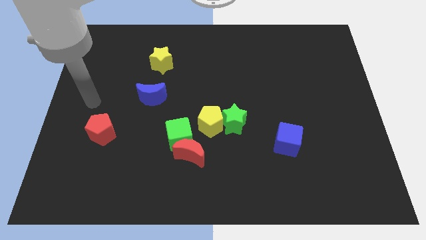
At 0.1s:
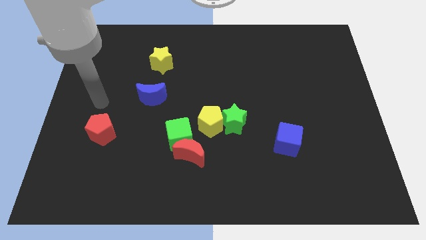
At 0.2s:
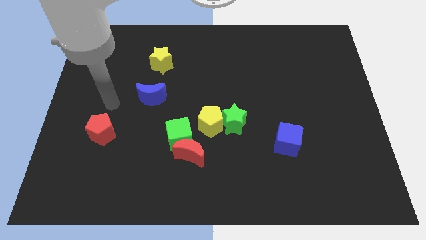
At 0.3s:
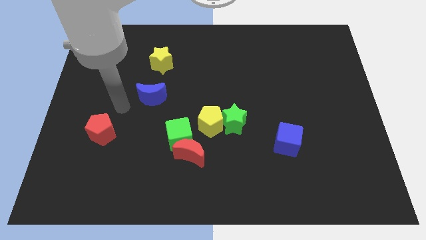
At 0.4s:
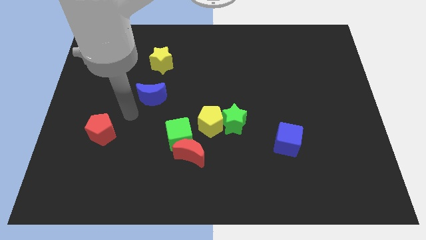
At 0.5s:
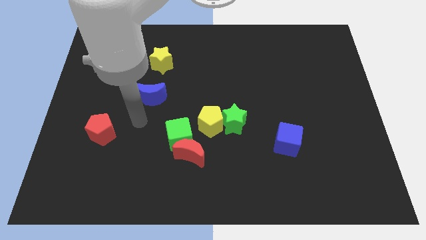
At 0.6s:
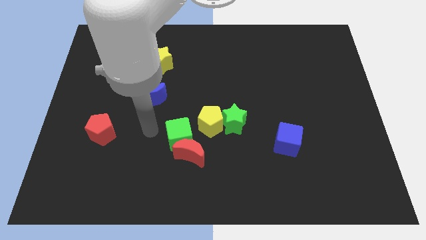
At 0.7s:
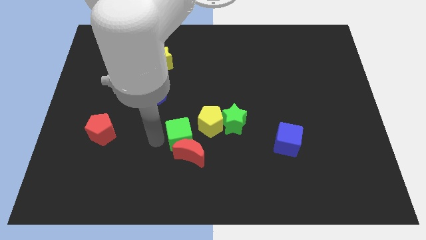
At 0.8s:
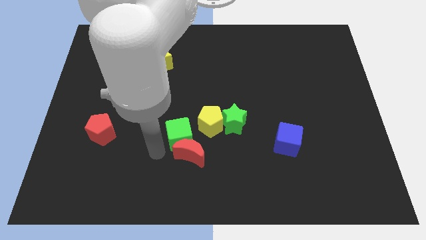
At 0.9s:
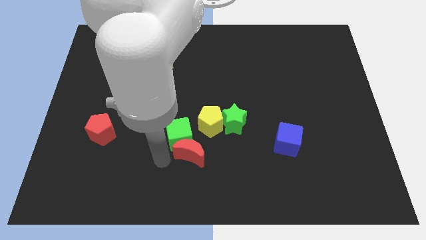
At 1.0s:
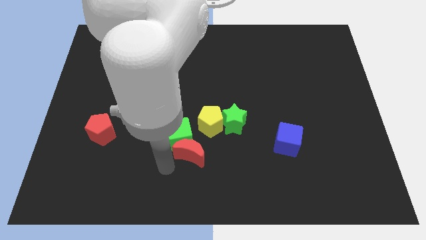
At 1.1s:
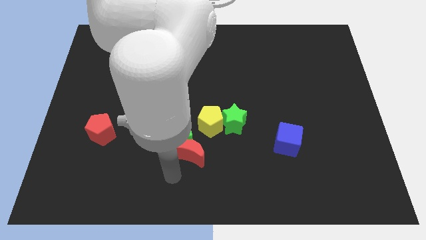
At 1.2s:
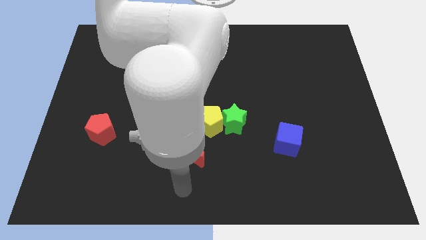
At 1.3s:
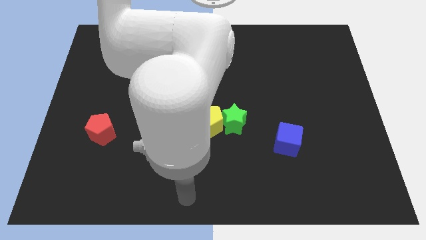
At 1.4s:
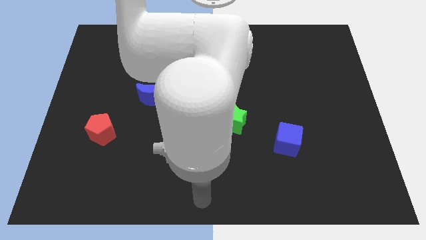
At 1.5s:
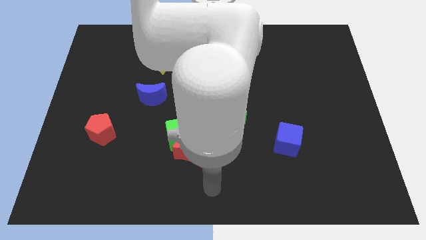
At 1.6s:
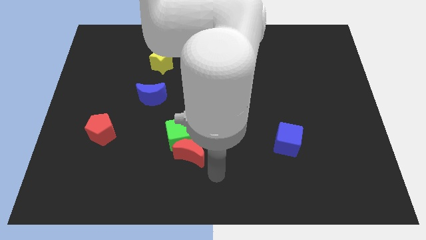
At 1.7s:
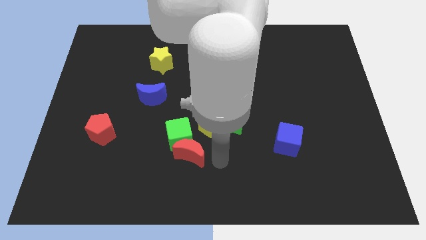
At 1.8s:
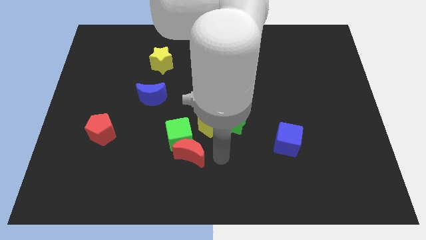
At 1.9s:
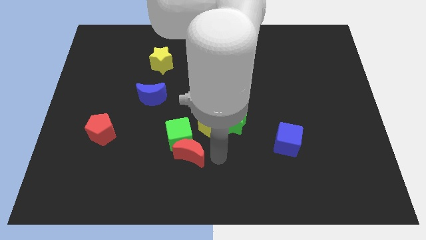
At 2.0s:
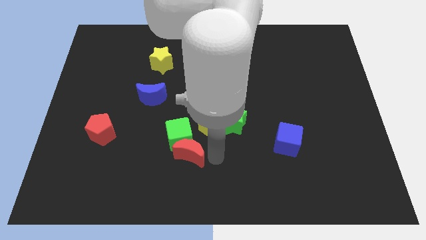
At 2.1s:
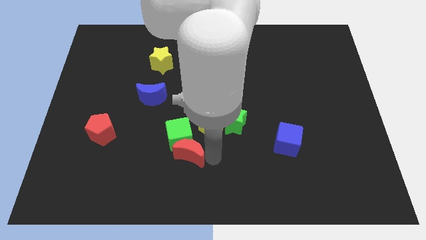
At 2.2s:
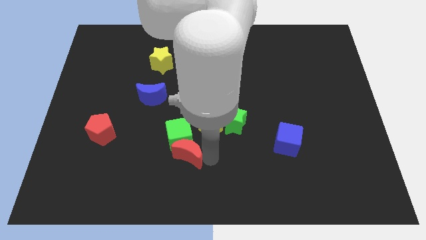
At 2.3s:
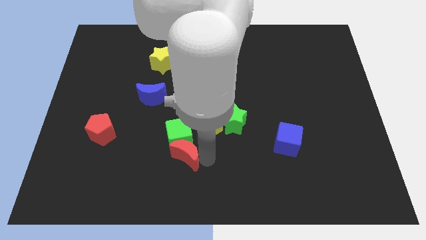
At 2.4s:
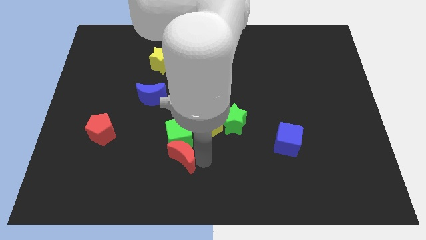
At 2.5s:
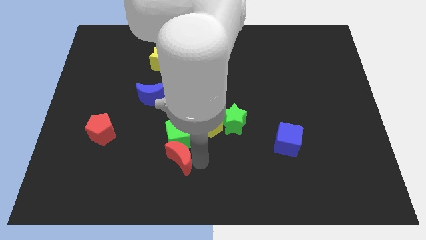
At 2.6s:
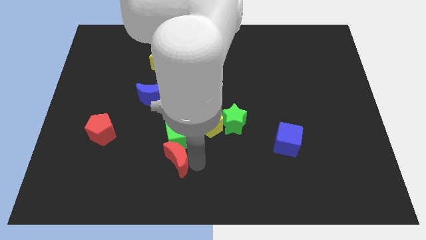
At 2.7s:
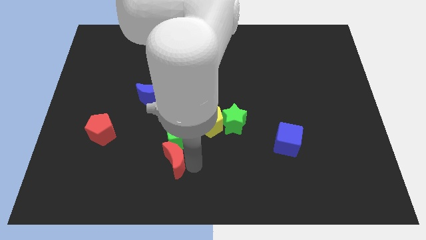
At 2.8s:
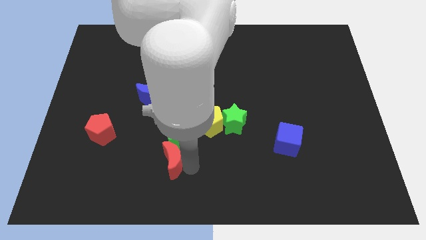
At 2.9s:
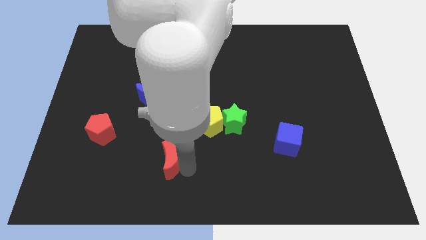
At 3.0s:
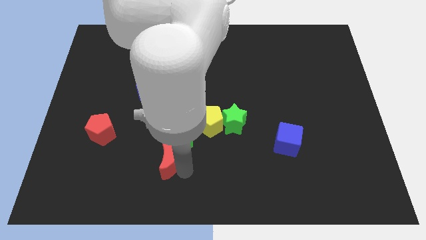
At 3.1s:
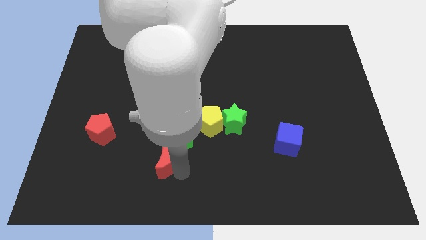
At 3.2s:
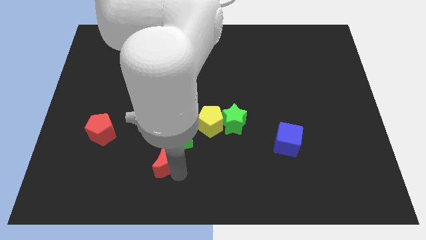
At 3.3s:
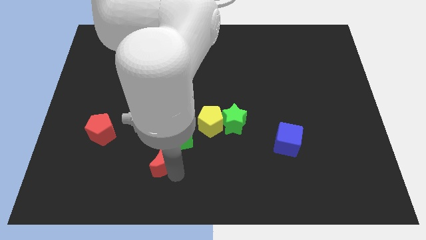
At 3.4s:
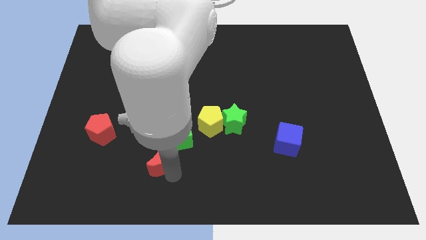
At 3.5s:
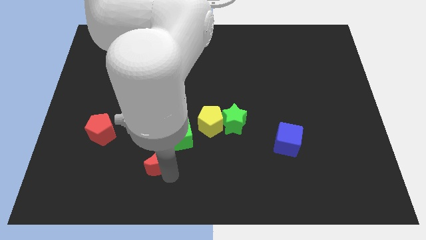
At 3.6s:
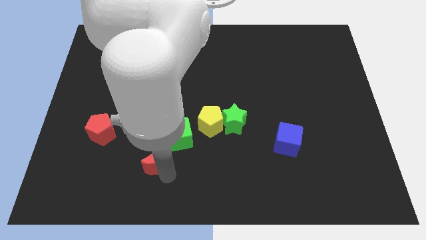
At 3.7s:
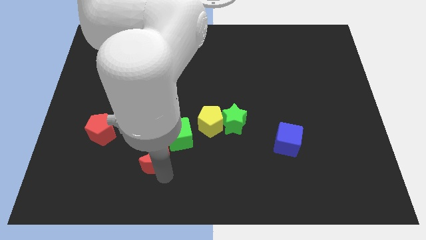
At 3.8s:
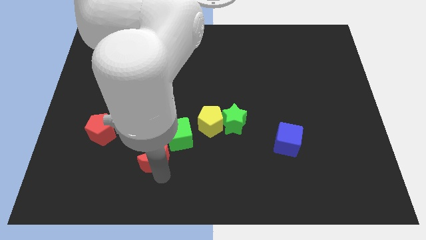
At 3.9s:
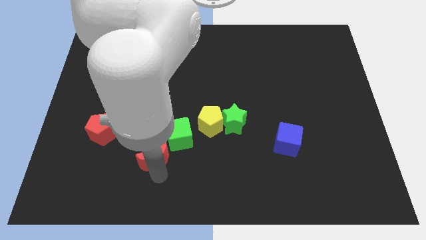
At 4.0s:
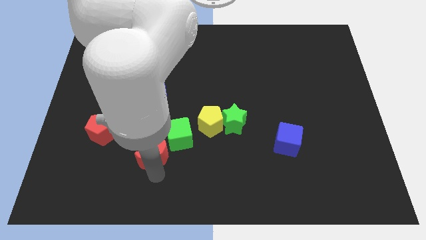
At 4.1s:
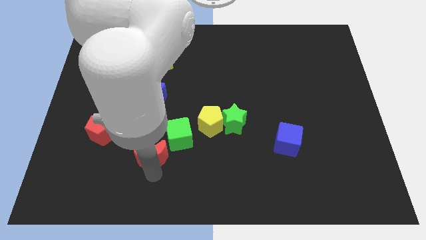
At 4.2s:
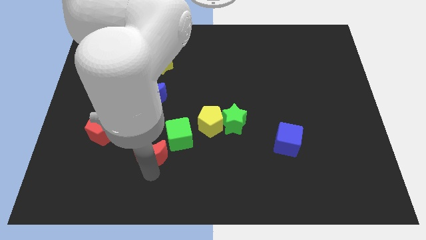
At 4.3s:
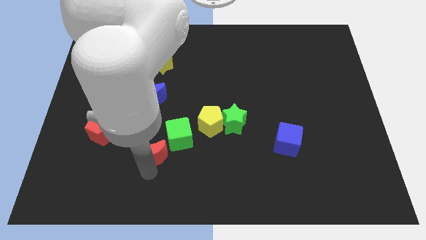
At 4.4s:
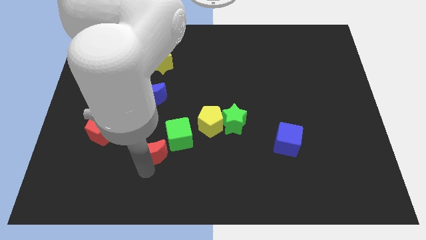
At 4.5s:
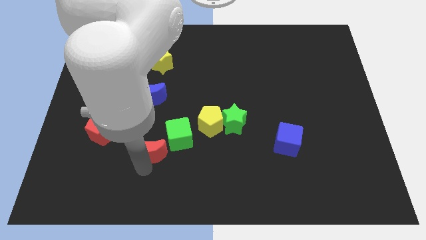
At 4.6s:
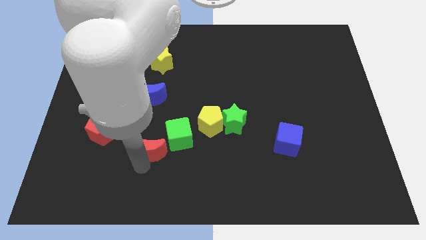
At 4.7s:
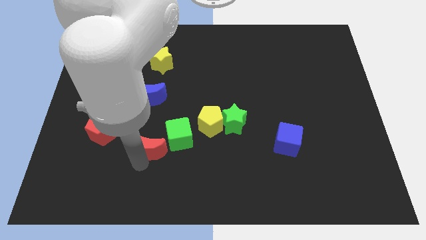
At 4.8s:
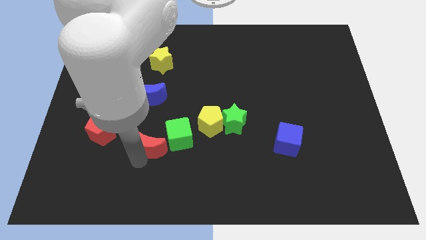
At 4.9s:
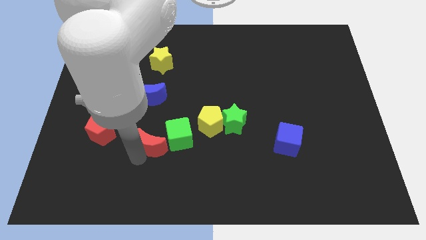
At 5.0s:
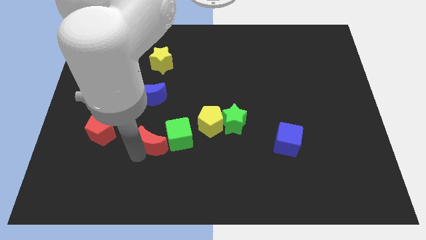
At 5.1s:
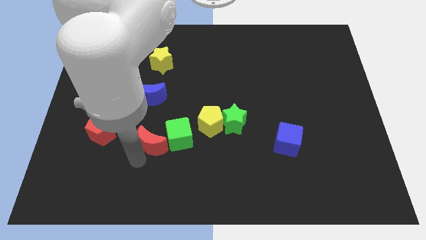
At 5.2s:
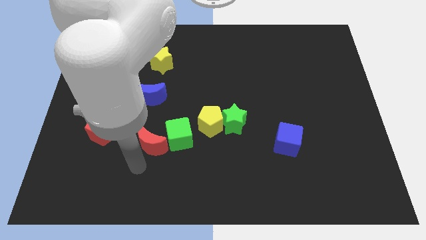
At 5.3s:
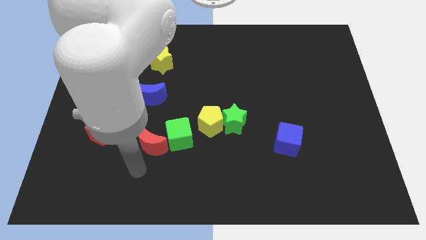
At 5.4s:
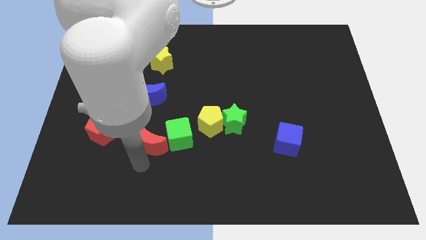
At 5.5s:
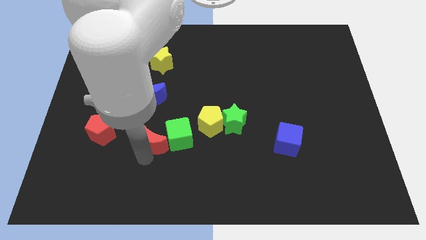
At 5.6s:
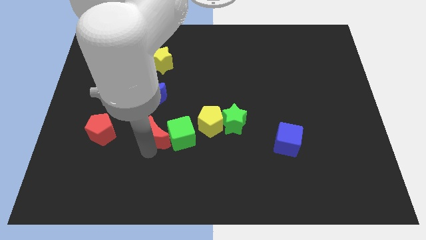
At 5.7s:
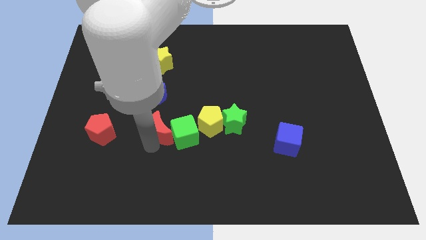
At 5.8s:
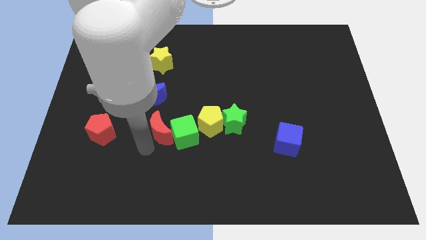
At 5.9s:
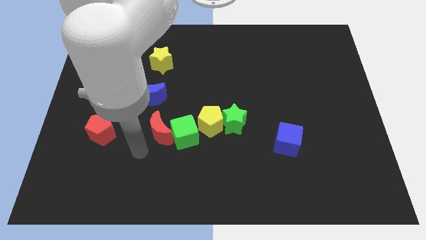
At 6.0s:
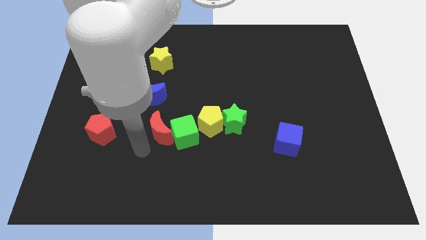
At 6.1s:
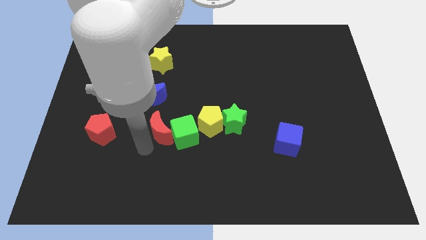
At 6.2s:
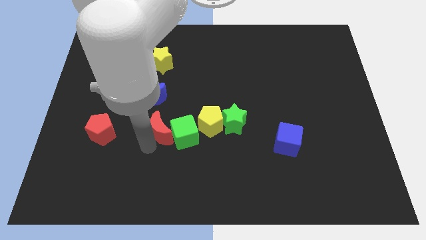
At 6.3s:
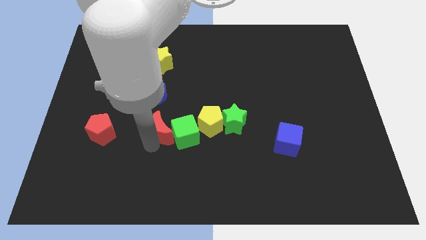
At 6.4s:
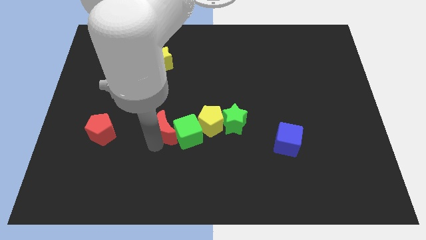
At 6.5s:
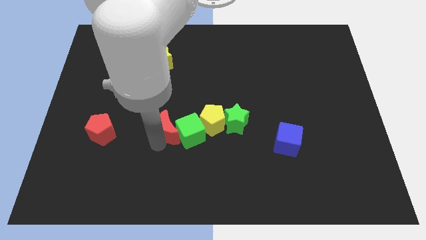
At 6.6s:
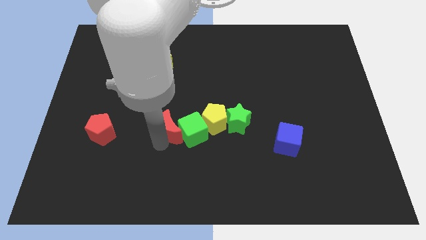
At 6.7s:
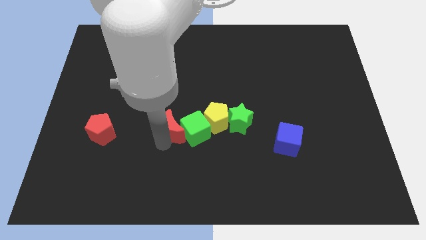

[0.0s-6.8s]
put the red moon to the center of the board
